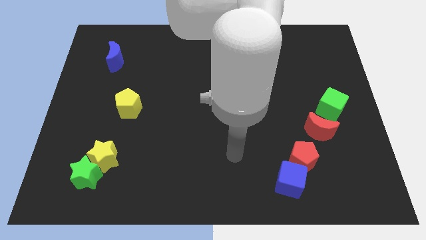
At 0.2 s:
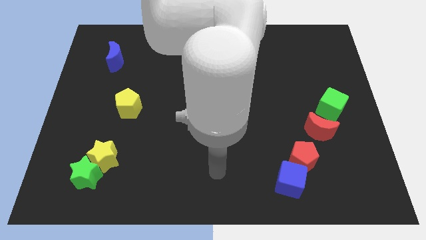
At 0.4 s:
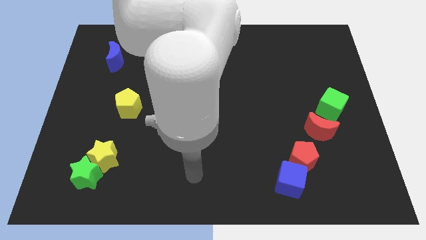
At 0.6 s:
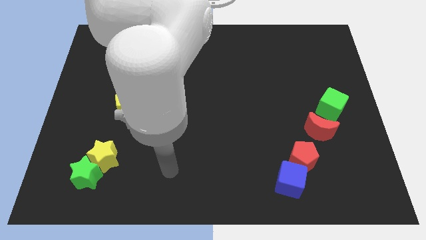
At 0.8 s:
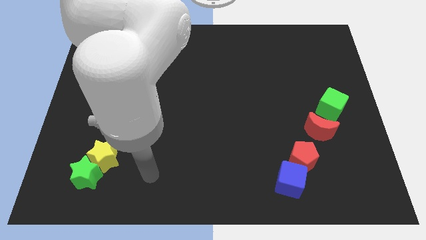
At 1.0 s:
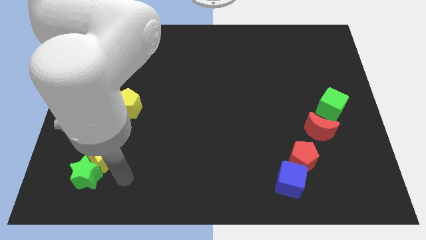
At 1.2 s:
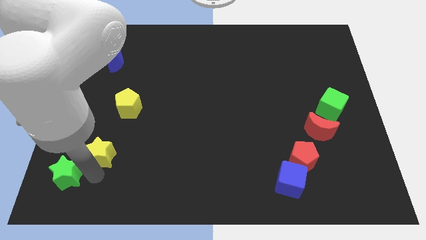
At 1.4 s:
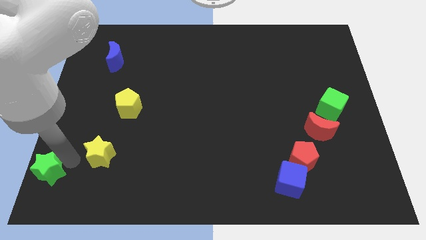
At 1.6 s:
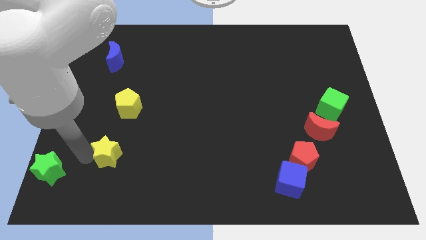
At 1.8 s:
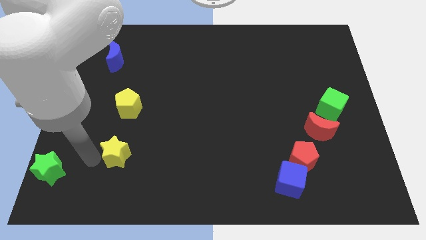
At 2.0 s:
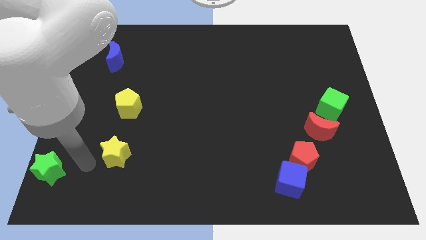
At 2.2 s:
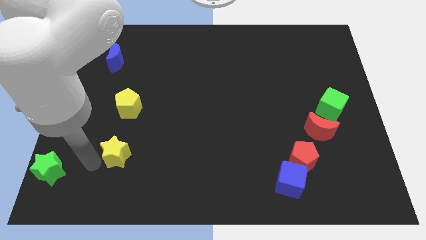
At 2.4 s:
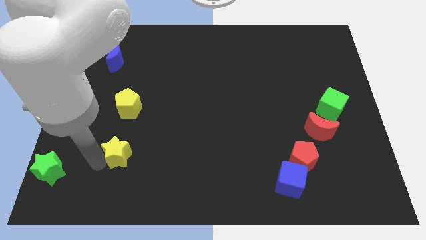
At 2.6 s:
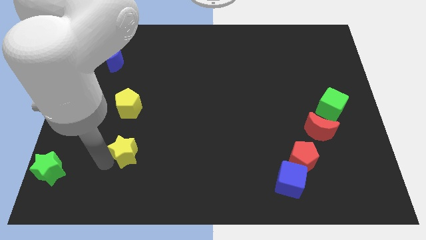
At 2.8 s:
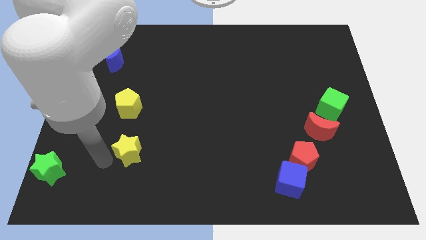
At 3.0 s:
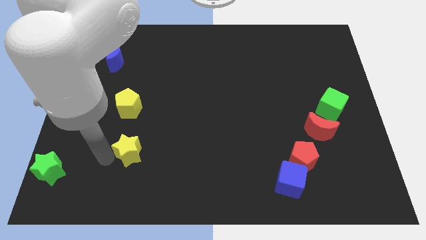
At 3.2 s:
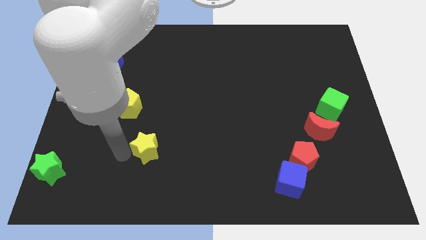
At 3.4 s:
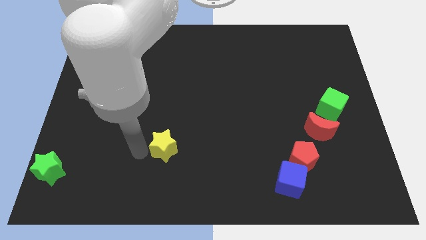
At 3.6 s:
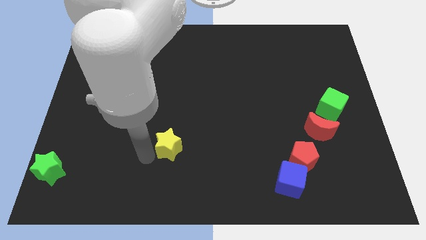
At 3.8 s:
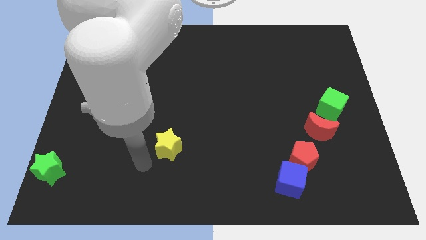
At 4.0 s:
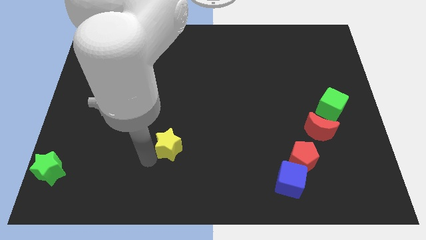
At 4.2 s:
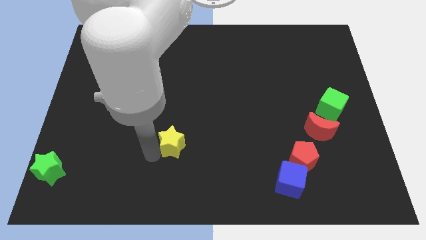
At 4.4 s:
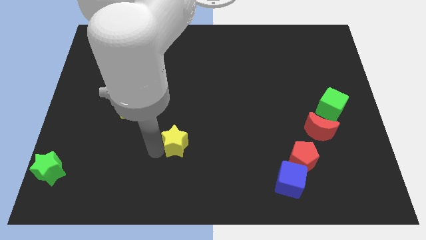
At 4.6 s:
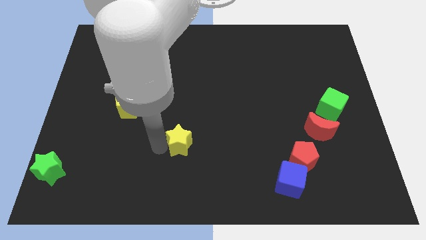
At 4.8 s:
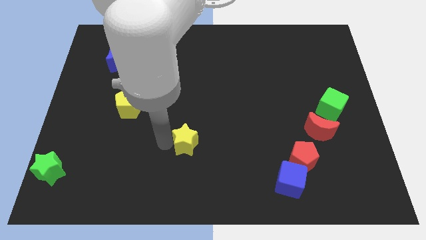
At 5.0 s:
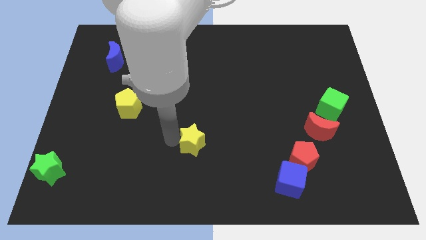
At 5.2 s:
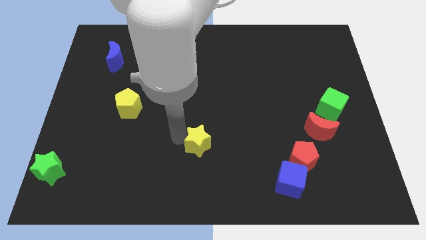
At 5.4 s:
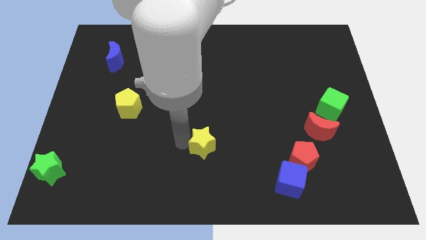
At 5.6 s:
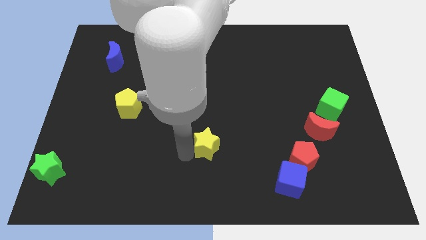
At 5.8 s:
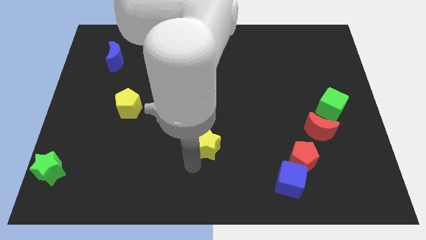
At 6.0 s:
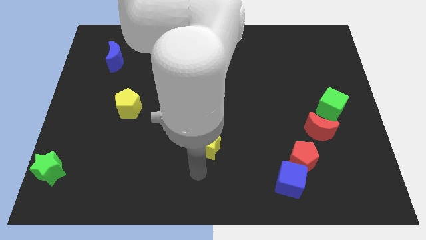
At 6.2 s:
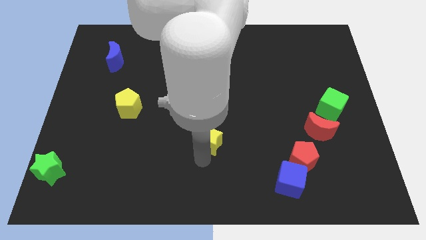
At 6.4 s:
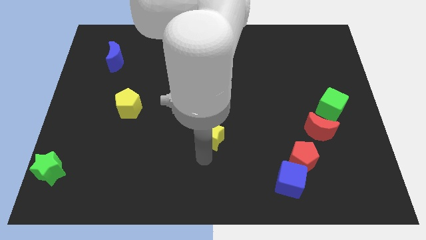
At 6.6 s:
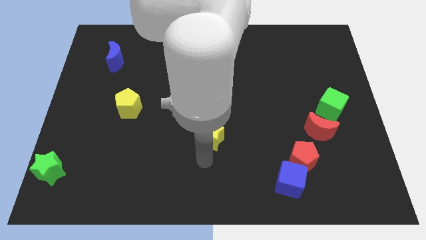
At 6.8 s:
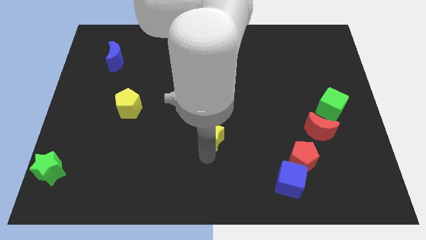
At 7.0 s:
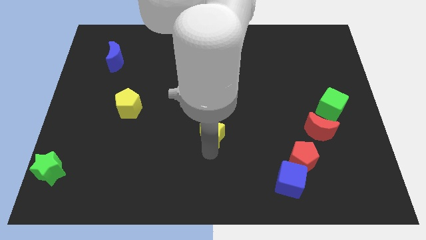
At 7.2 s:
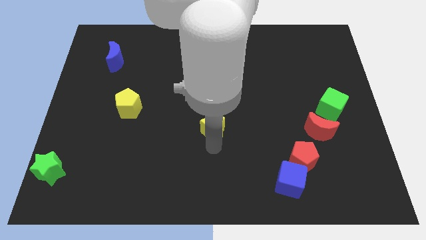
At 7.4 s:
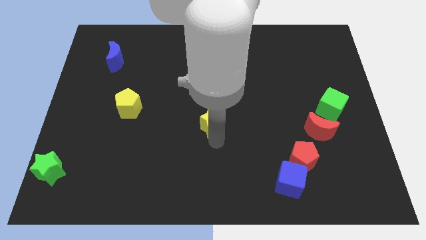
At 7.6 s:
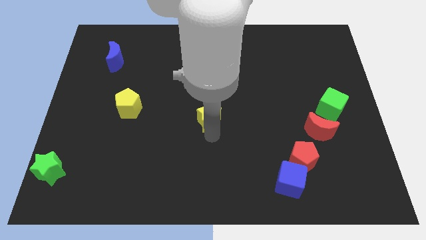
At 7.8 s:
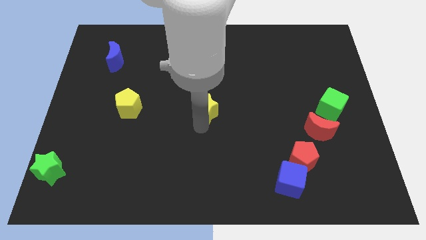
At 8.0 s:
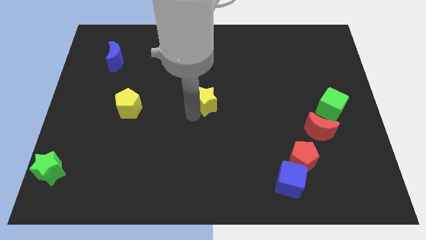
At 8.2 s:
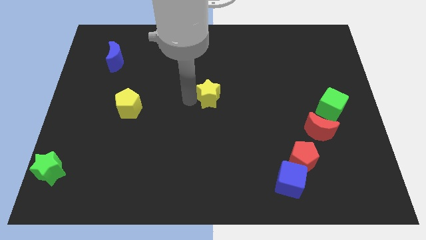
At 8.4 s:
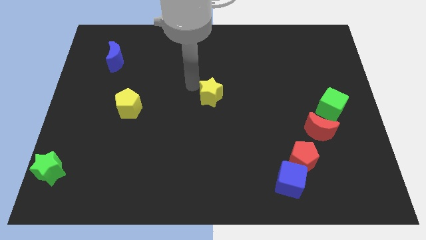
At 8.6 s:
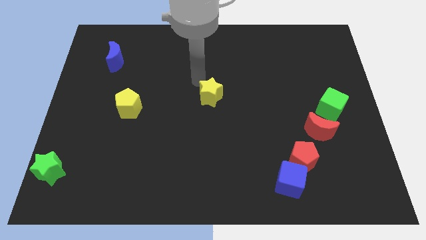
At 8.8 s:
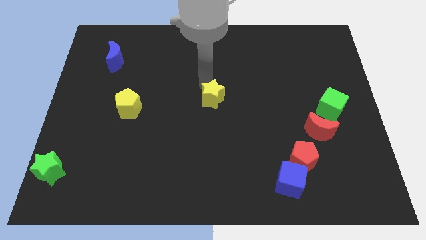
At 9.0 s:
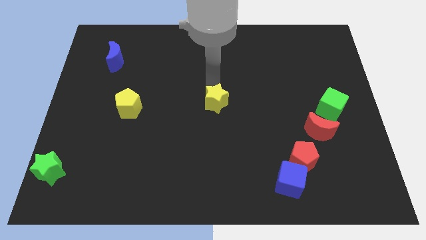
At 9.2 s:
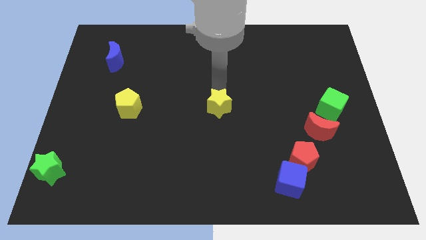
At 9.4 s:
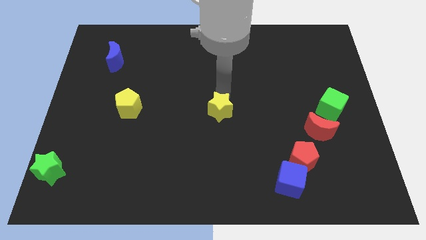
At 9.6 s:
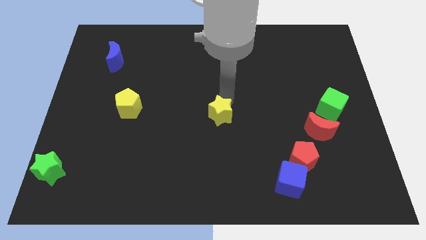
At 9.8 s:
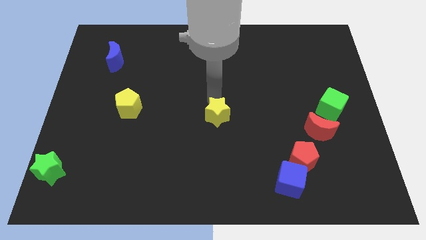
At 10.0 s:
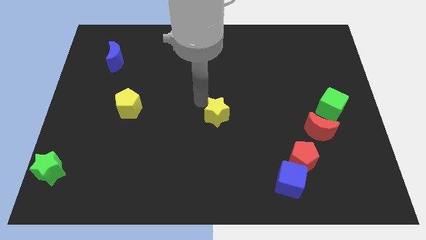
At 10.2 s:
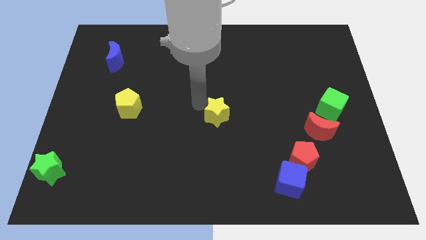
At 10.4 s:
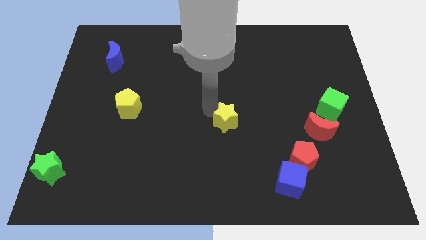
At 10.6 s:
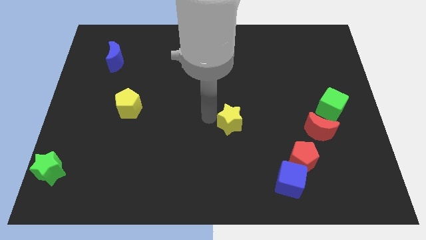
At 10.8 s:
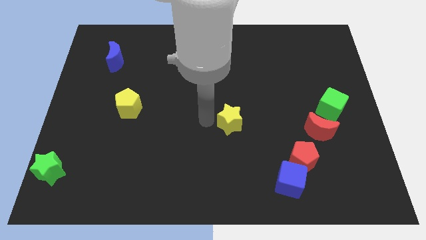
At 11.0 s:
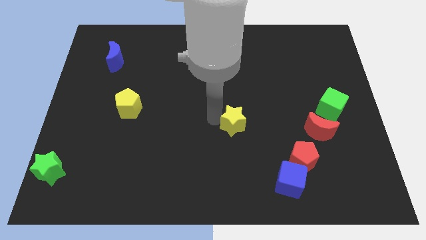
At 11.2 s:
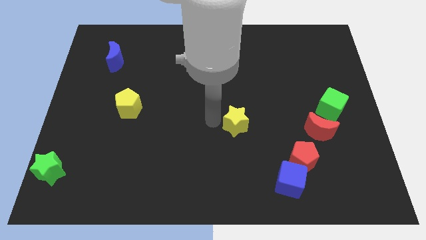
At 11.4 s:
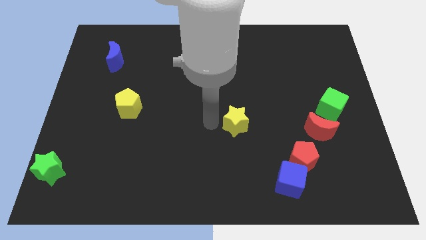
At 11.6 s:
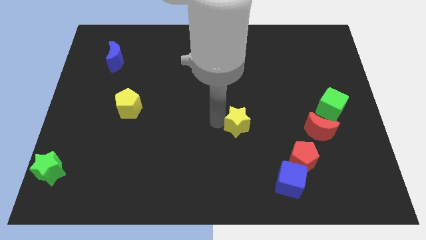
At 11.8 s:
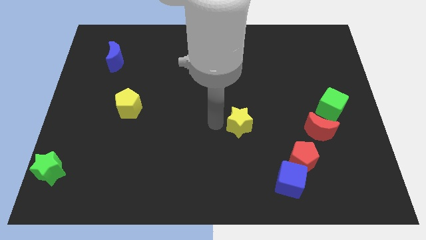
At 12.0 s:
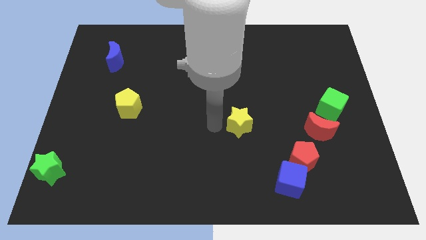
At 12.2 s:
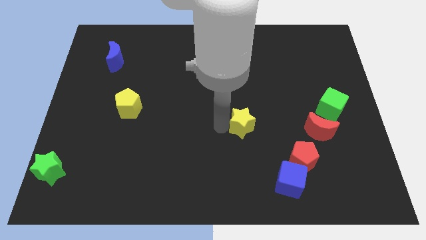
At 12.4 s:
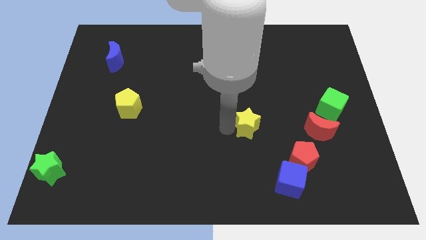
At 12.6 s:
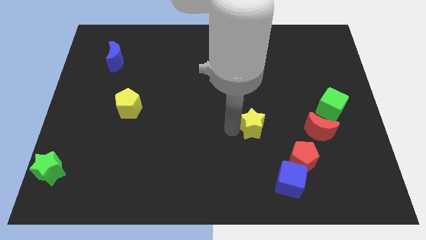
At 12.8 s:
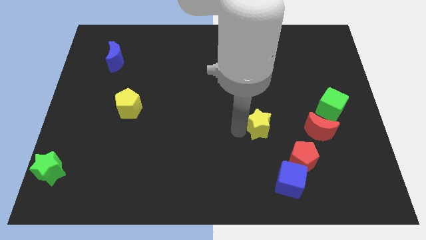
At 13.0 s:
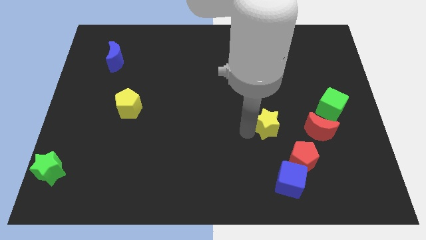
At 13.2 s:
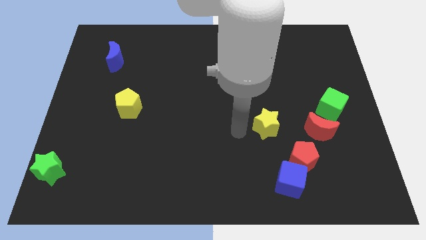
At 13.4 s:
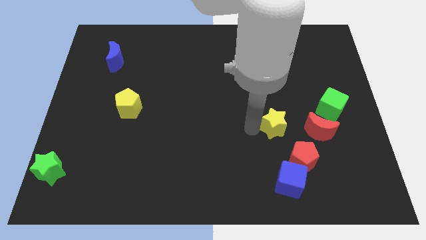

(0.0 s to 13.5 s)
push the yellow star to the top side of the red pentagon

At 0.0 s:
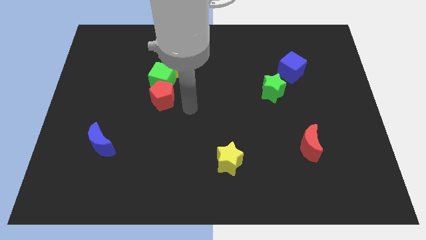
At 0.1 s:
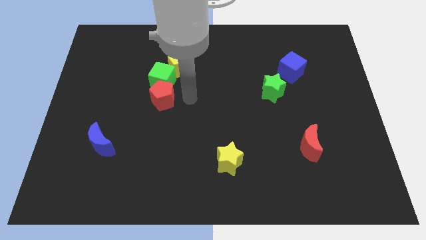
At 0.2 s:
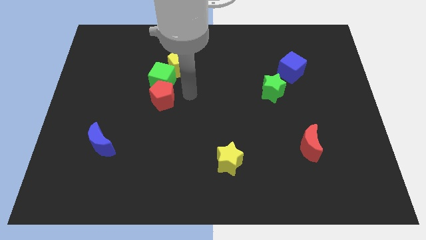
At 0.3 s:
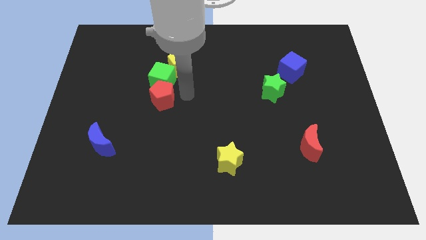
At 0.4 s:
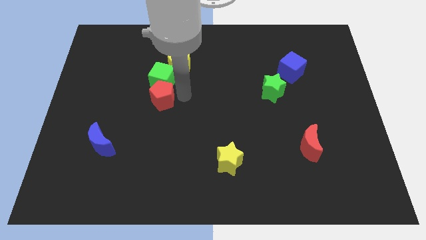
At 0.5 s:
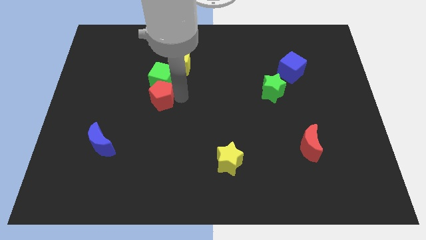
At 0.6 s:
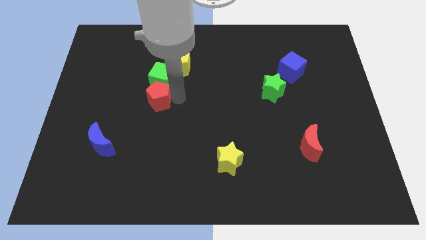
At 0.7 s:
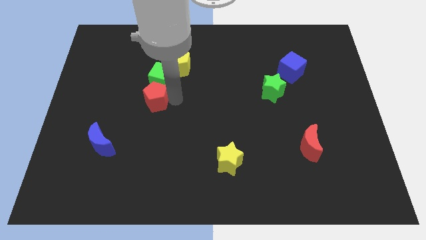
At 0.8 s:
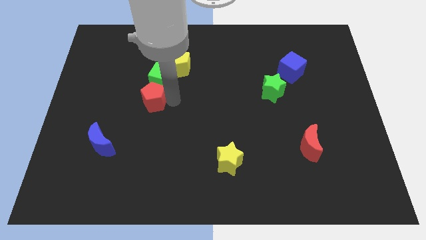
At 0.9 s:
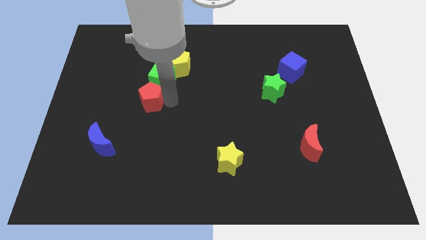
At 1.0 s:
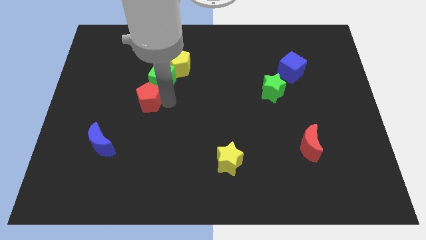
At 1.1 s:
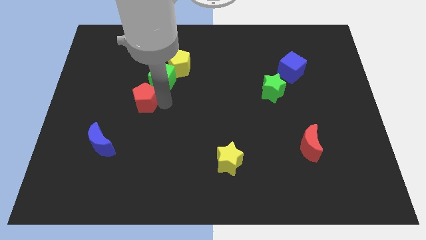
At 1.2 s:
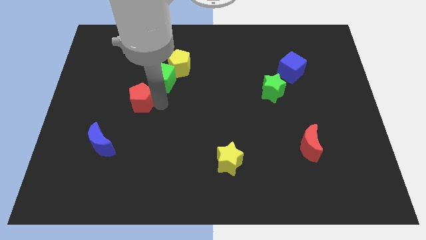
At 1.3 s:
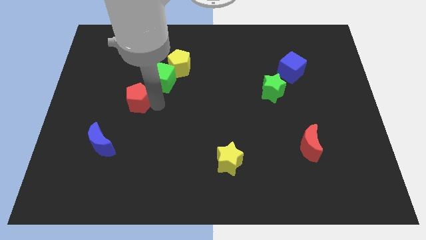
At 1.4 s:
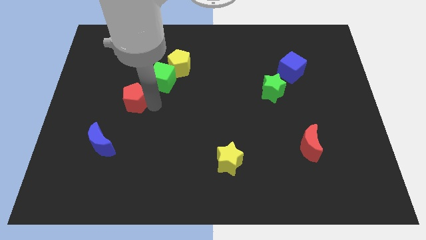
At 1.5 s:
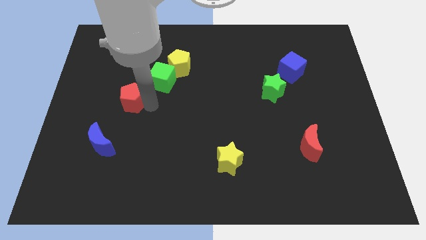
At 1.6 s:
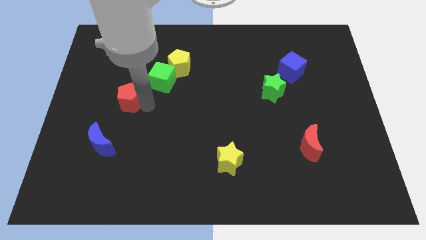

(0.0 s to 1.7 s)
put the red pentagon to the top side of the blue moon
